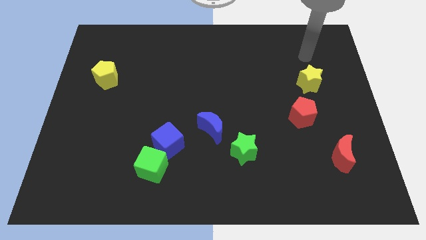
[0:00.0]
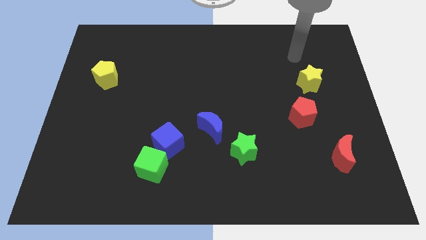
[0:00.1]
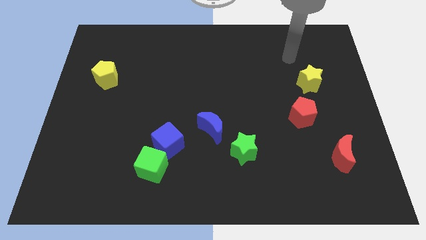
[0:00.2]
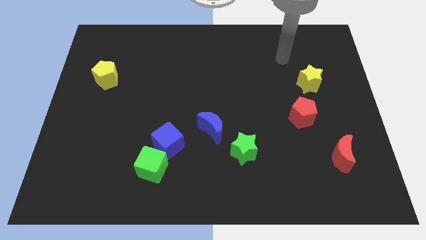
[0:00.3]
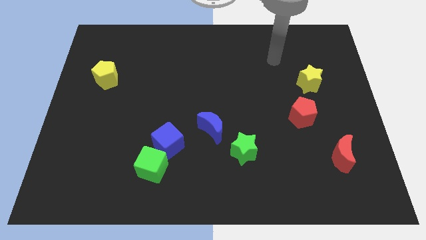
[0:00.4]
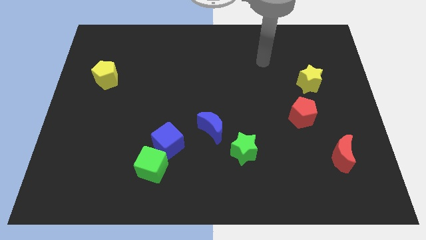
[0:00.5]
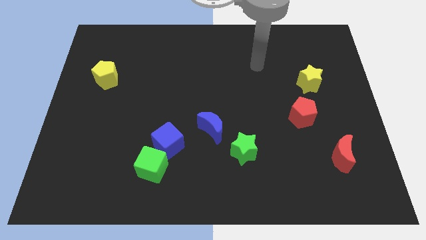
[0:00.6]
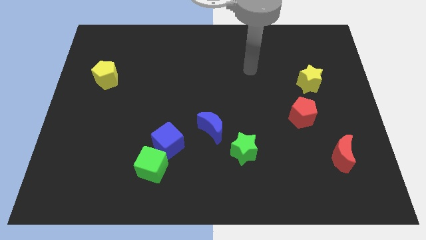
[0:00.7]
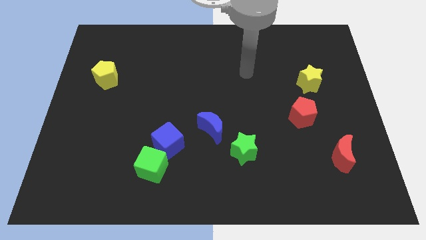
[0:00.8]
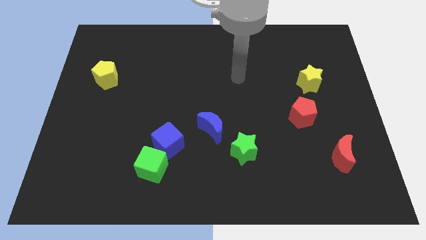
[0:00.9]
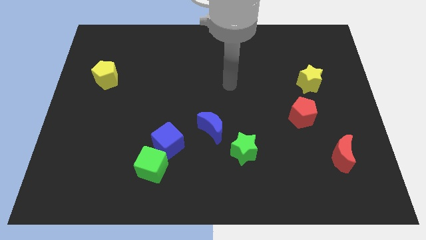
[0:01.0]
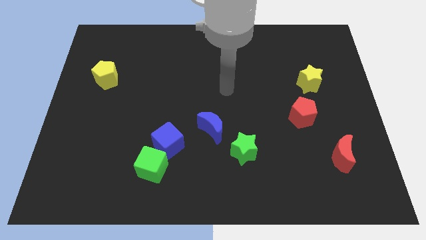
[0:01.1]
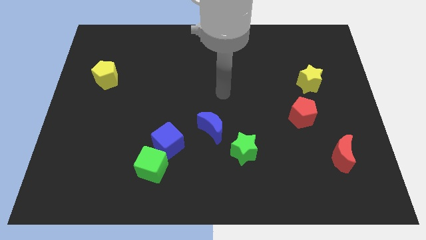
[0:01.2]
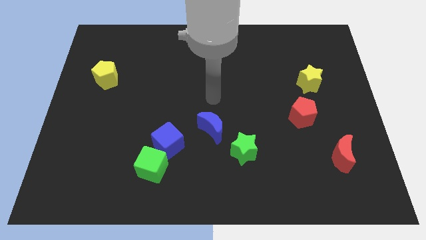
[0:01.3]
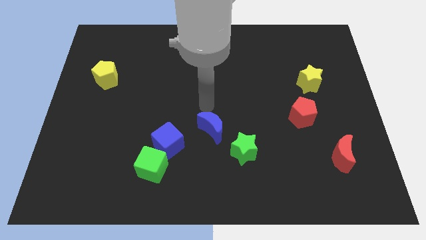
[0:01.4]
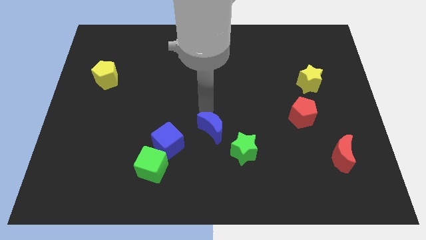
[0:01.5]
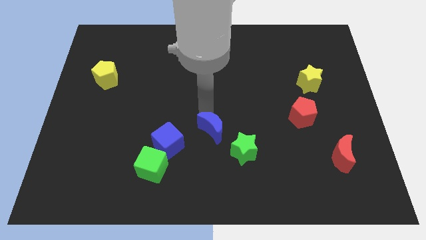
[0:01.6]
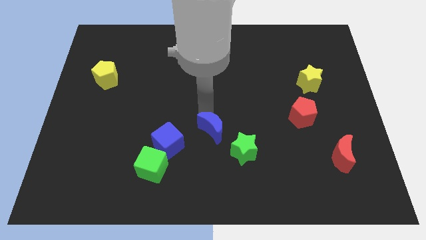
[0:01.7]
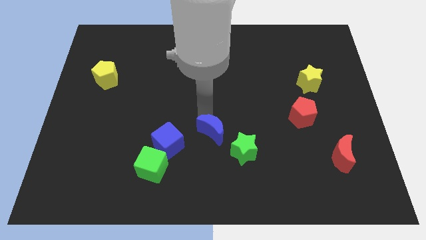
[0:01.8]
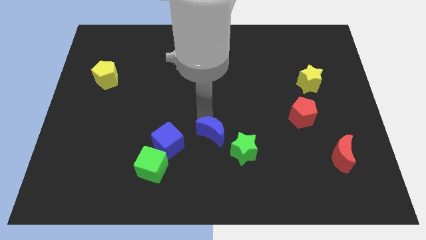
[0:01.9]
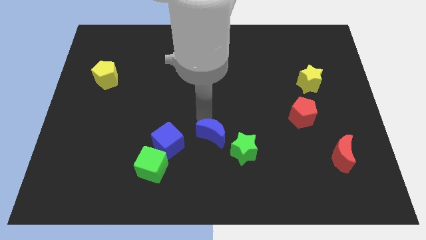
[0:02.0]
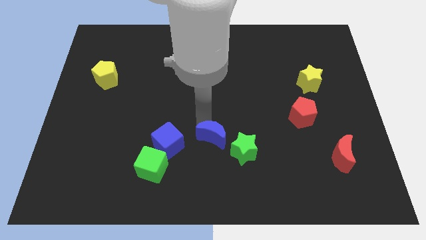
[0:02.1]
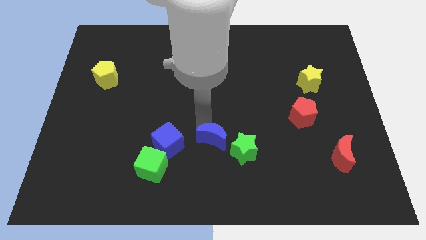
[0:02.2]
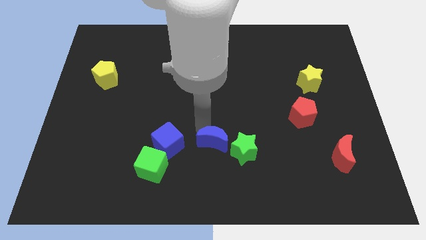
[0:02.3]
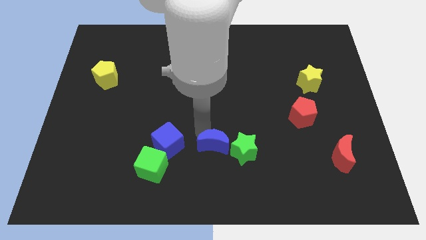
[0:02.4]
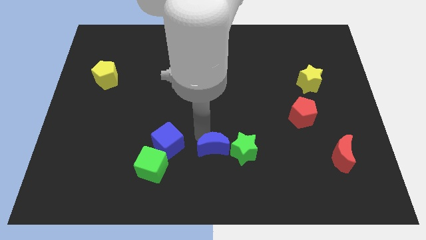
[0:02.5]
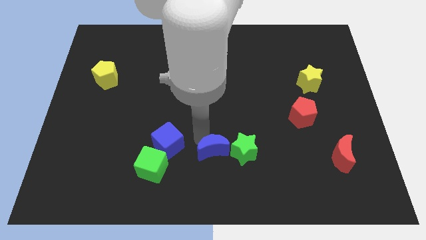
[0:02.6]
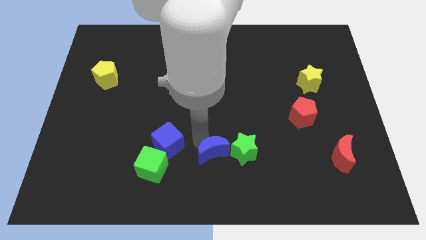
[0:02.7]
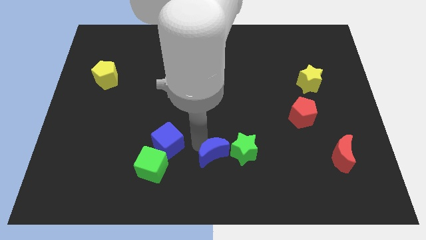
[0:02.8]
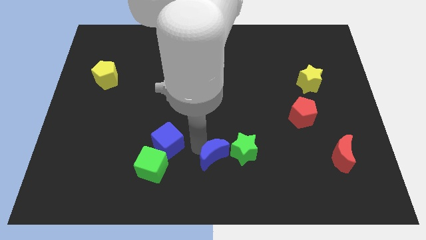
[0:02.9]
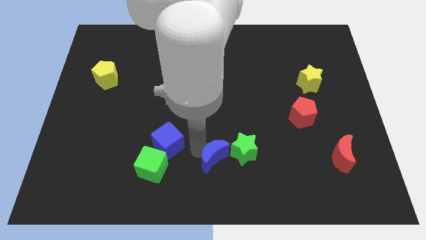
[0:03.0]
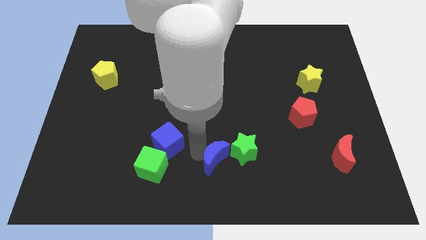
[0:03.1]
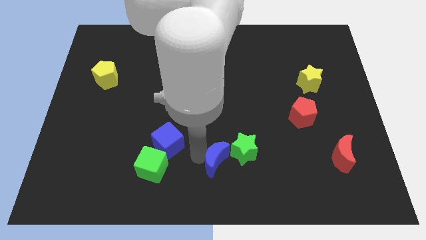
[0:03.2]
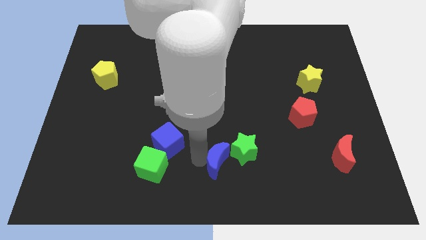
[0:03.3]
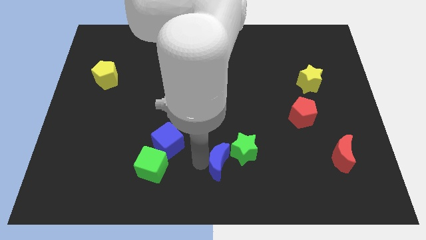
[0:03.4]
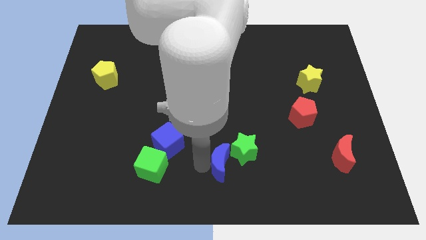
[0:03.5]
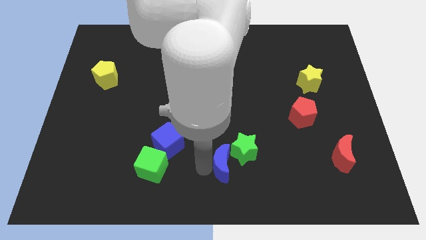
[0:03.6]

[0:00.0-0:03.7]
move the blue moon slightly down and to the right diagonally

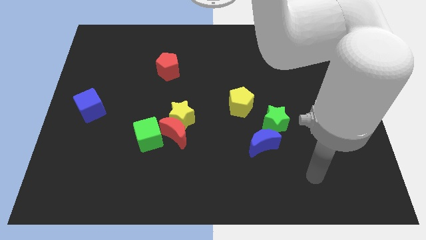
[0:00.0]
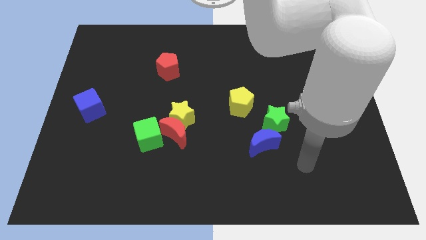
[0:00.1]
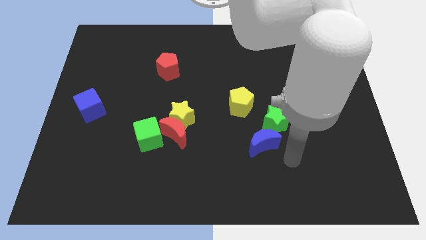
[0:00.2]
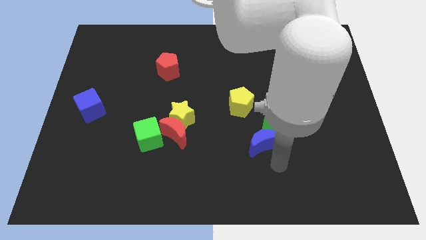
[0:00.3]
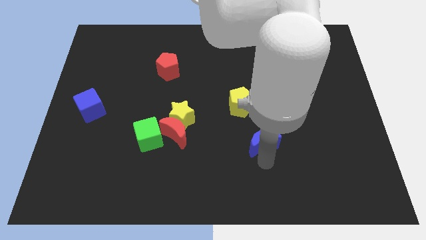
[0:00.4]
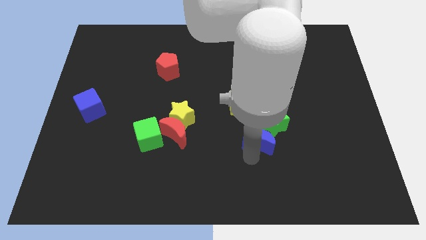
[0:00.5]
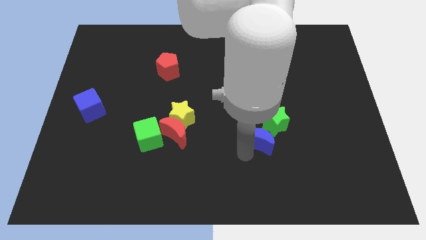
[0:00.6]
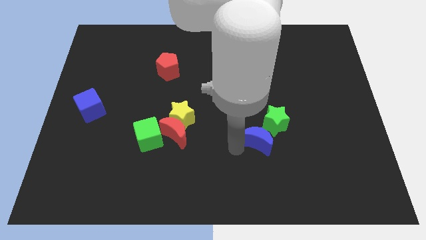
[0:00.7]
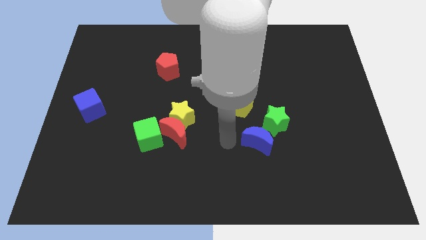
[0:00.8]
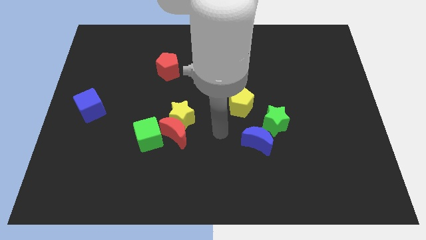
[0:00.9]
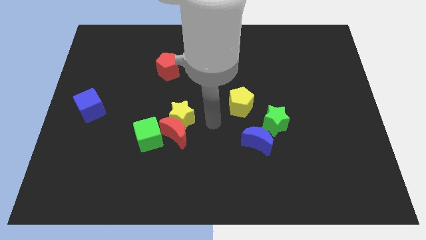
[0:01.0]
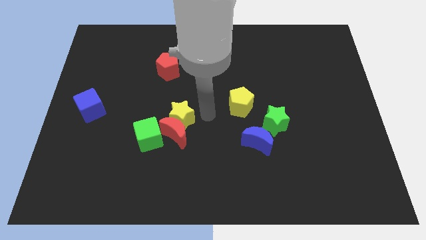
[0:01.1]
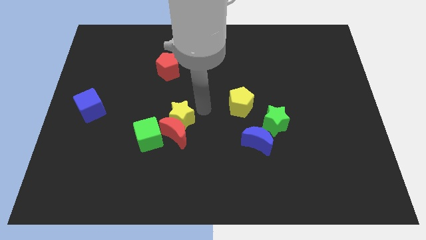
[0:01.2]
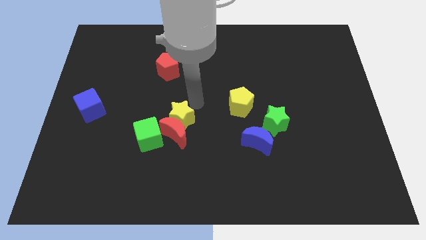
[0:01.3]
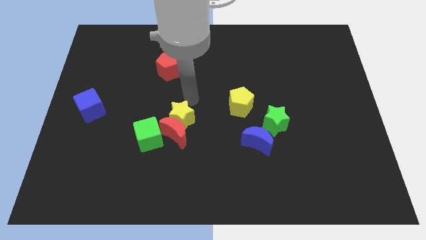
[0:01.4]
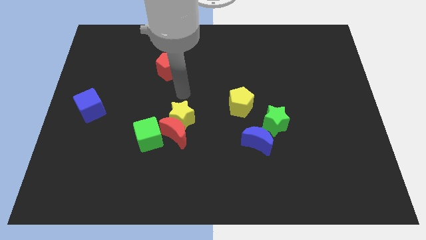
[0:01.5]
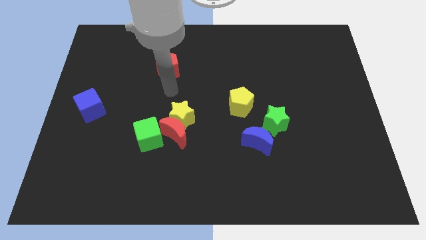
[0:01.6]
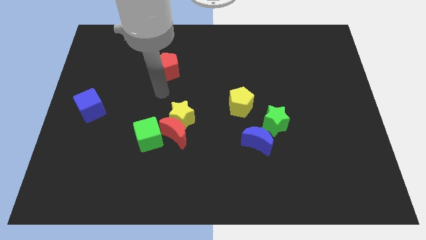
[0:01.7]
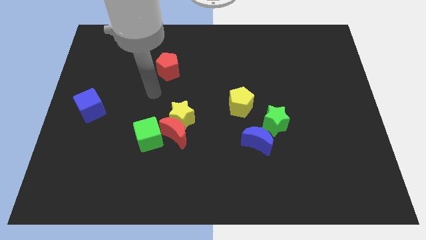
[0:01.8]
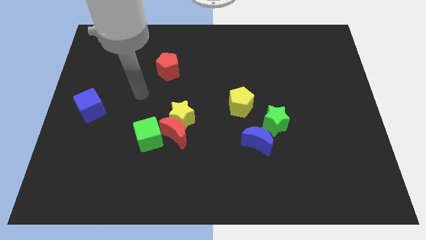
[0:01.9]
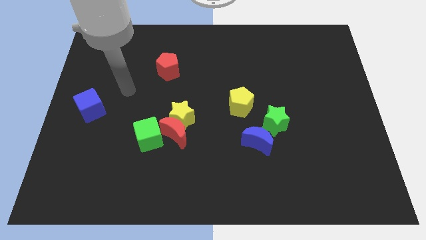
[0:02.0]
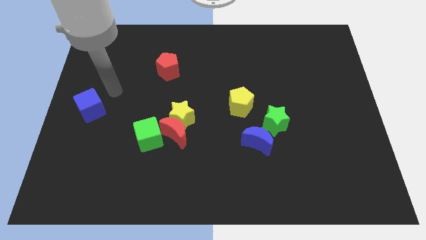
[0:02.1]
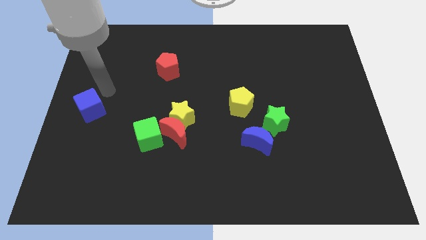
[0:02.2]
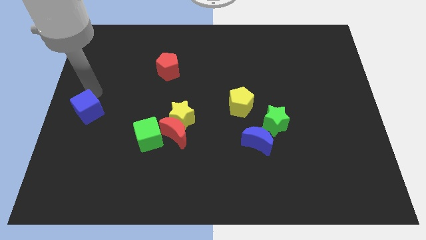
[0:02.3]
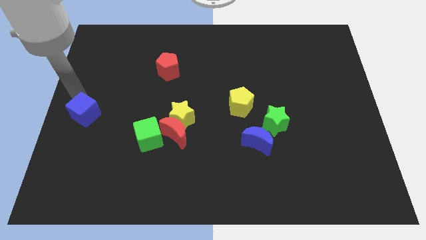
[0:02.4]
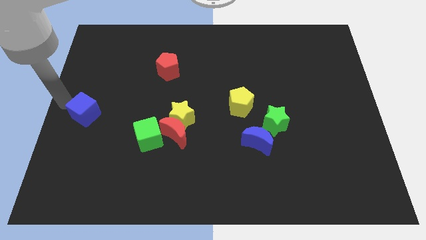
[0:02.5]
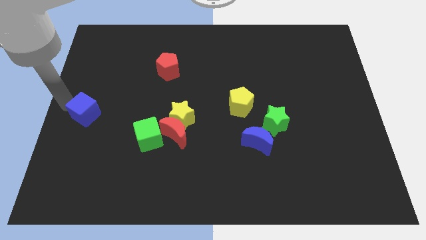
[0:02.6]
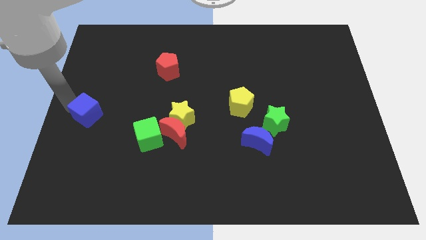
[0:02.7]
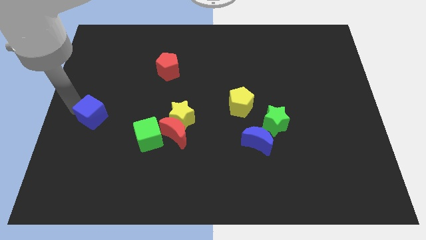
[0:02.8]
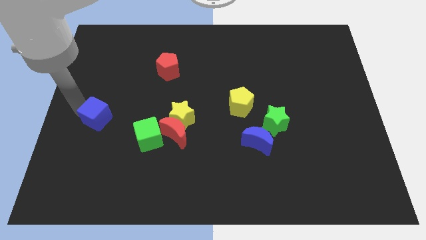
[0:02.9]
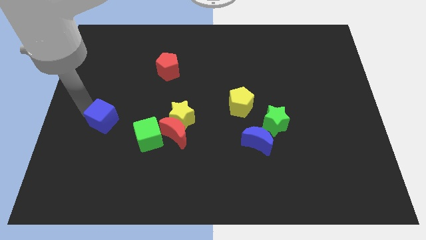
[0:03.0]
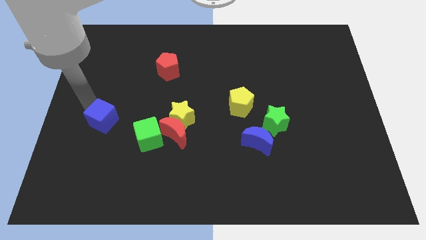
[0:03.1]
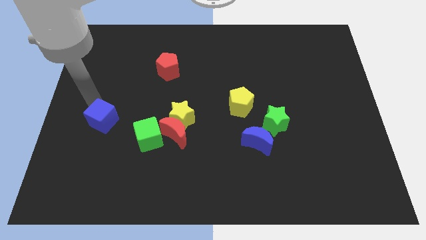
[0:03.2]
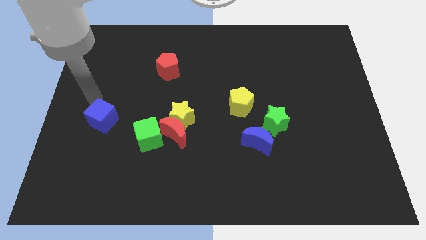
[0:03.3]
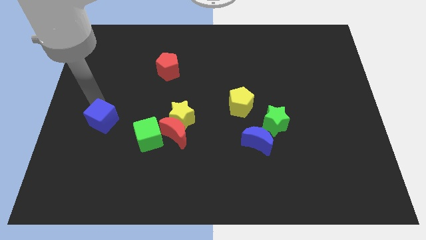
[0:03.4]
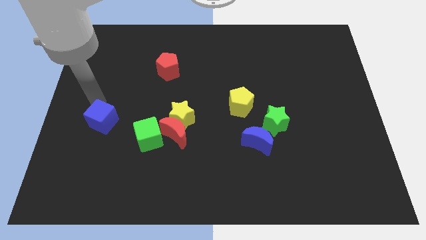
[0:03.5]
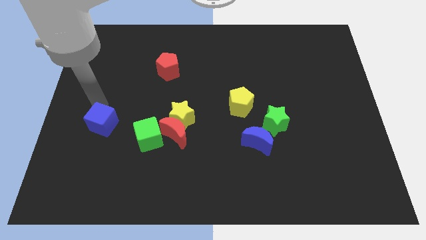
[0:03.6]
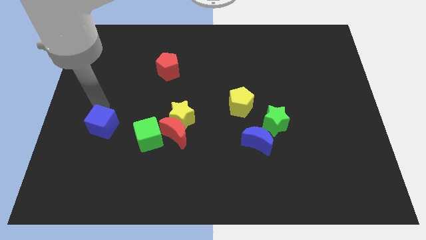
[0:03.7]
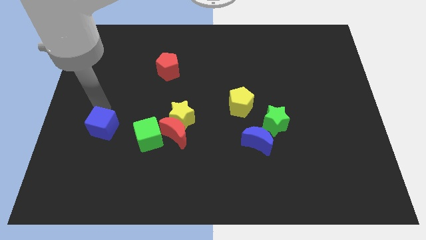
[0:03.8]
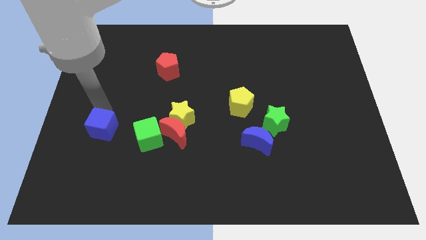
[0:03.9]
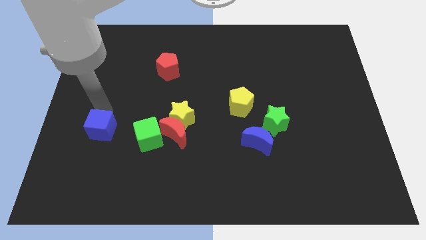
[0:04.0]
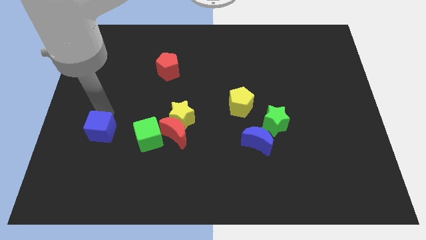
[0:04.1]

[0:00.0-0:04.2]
push the blue cube diagonally downwards and to the right somewhat
